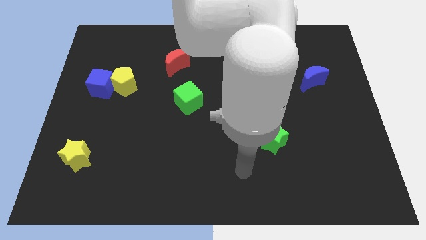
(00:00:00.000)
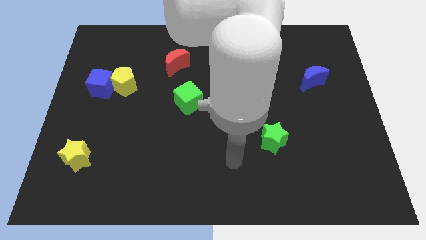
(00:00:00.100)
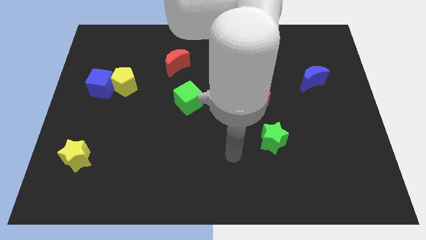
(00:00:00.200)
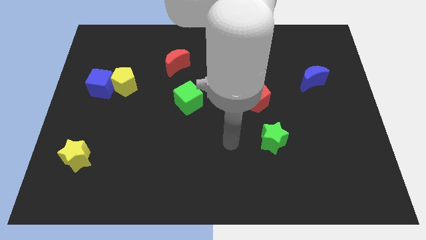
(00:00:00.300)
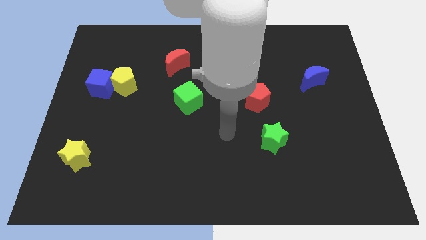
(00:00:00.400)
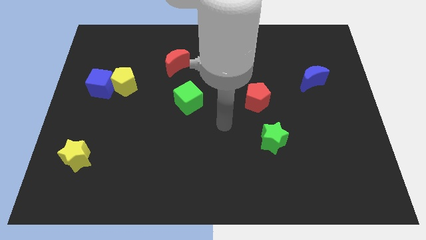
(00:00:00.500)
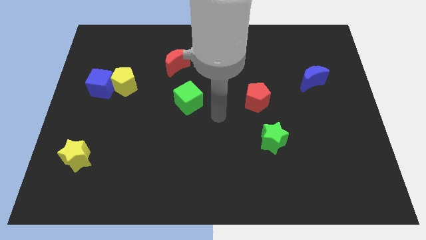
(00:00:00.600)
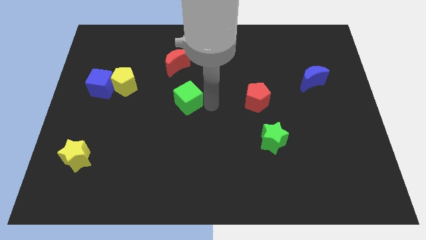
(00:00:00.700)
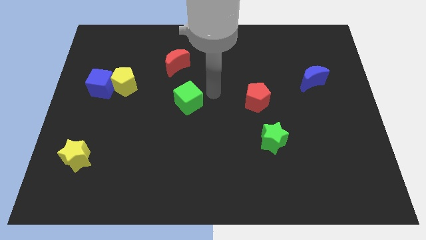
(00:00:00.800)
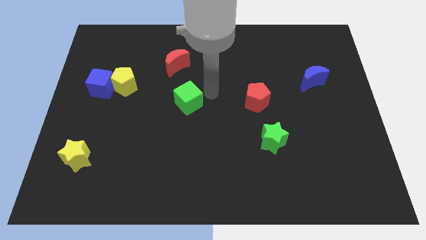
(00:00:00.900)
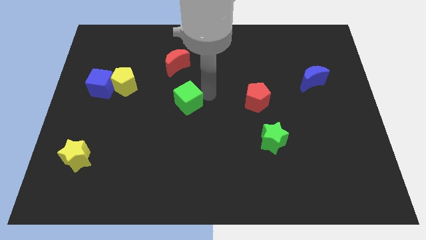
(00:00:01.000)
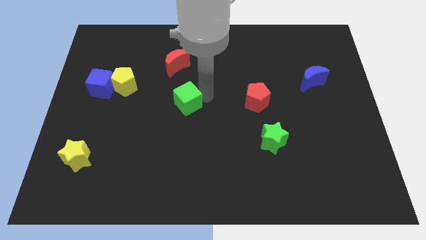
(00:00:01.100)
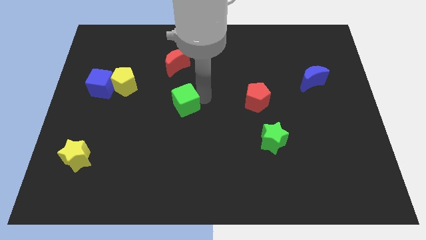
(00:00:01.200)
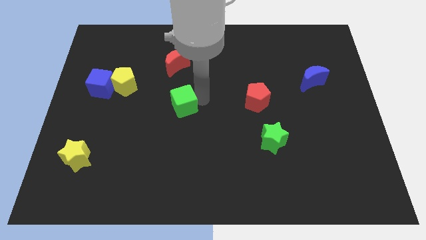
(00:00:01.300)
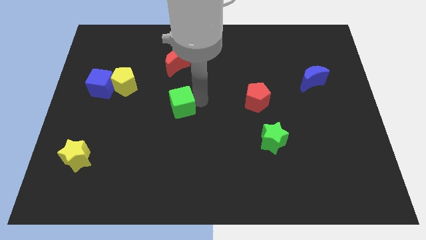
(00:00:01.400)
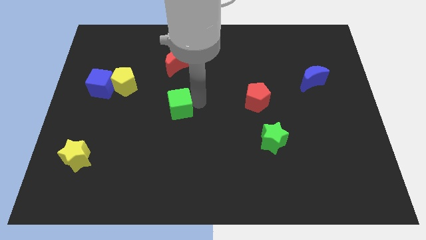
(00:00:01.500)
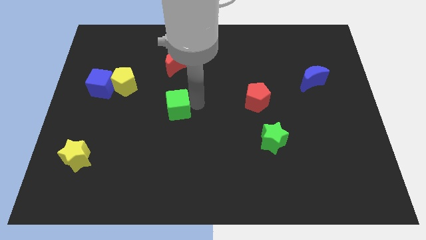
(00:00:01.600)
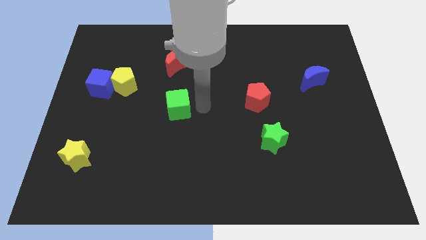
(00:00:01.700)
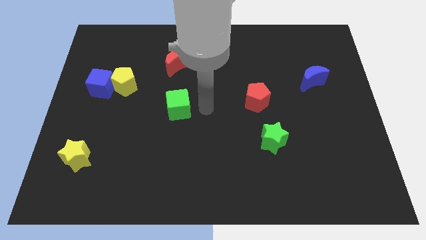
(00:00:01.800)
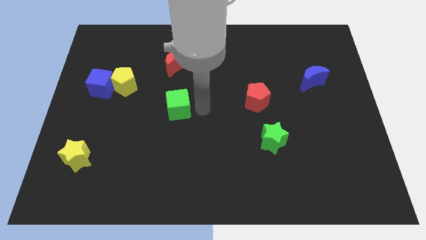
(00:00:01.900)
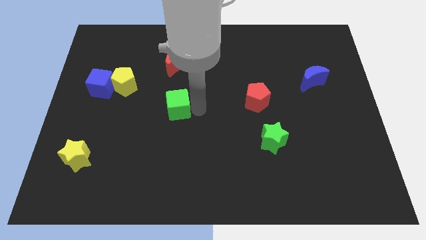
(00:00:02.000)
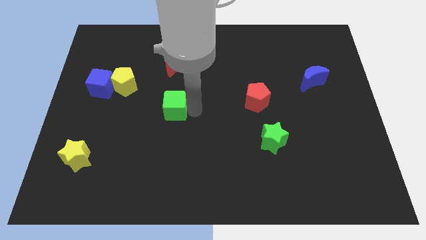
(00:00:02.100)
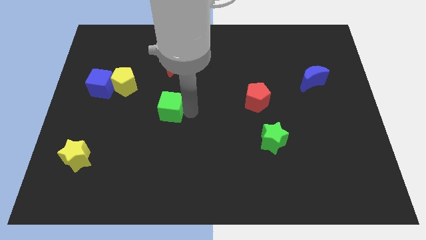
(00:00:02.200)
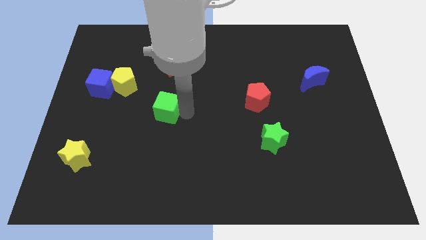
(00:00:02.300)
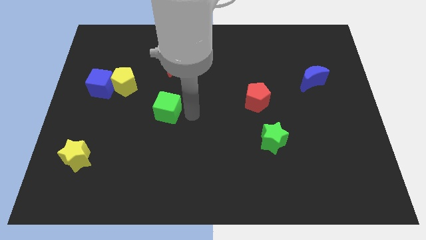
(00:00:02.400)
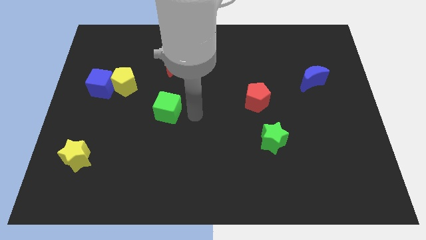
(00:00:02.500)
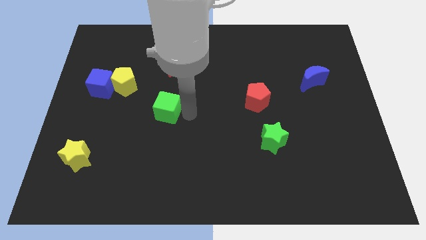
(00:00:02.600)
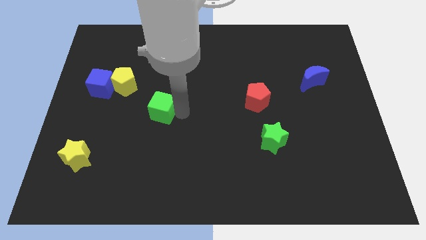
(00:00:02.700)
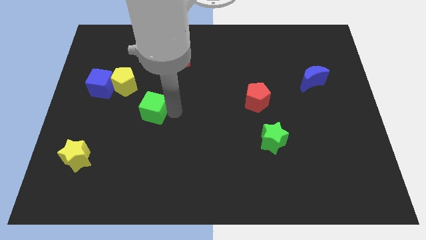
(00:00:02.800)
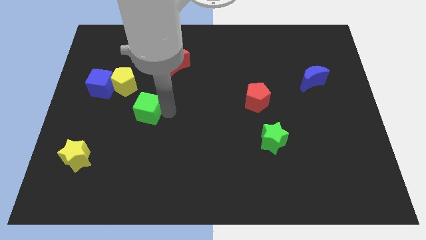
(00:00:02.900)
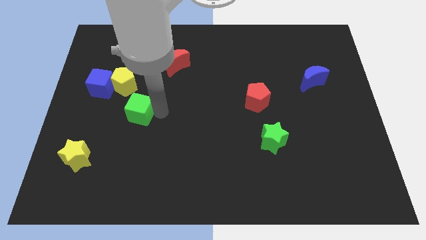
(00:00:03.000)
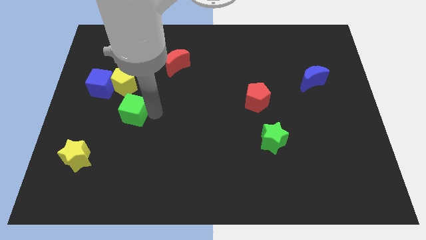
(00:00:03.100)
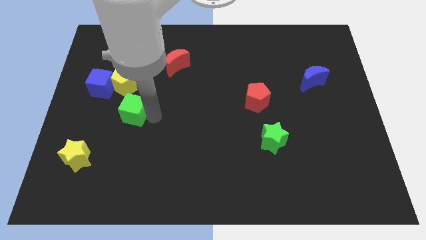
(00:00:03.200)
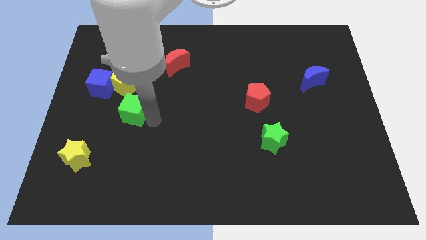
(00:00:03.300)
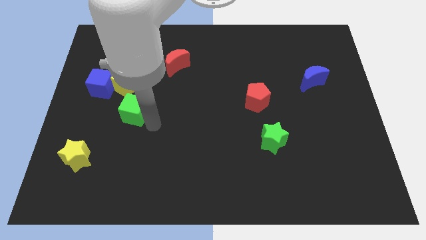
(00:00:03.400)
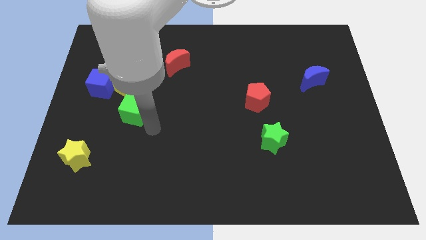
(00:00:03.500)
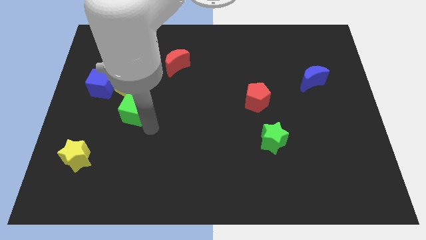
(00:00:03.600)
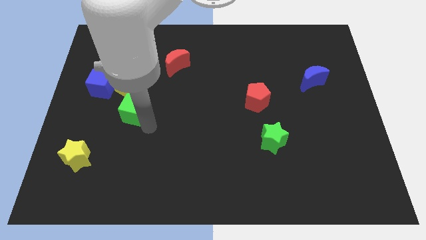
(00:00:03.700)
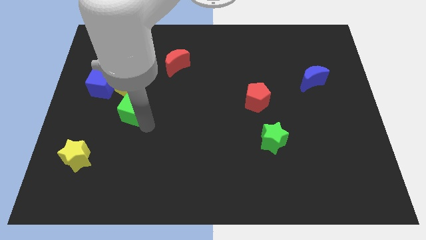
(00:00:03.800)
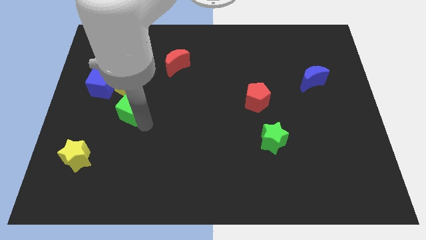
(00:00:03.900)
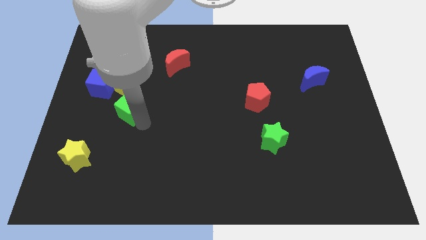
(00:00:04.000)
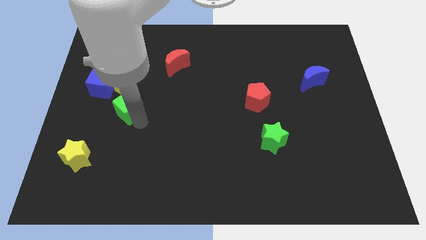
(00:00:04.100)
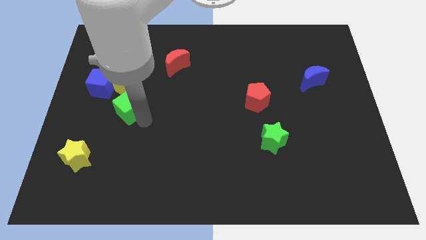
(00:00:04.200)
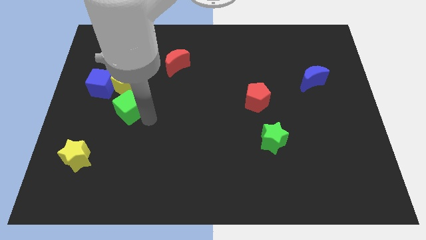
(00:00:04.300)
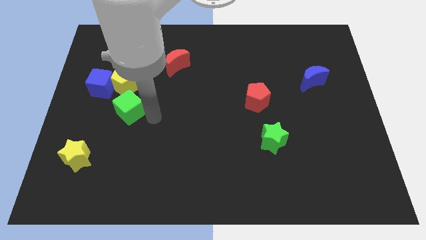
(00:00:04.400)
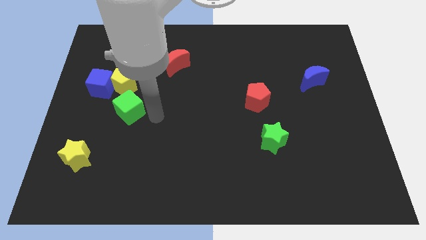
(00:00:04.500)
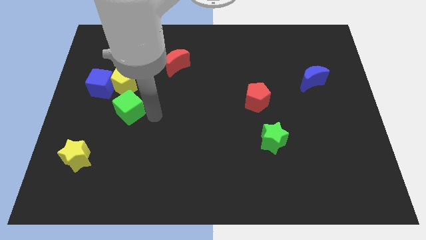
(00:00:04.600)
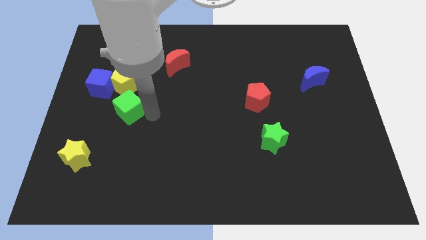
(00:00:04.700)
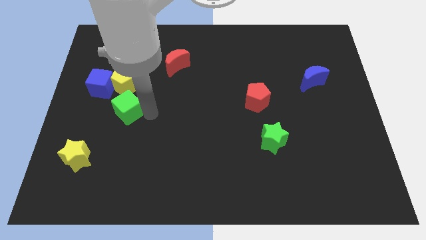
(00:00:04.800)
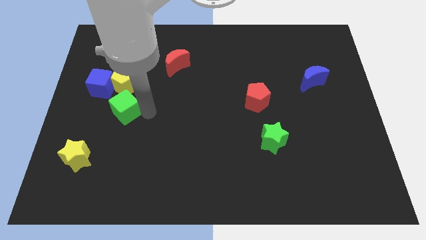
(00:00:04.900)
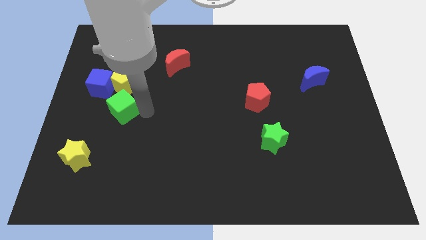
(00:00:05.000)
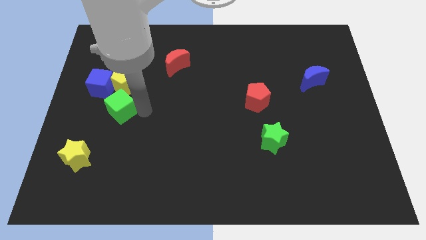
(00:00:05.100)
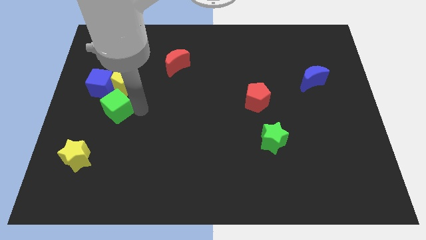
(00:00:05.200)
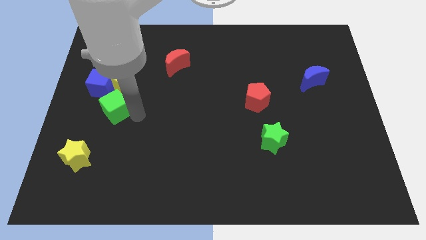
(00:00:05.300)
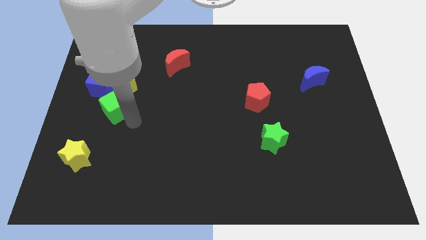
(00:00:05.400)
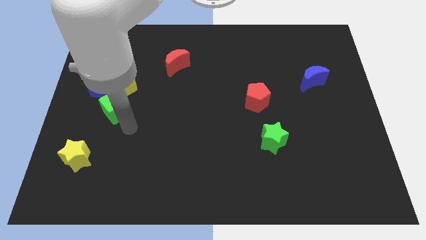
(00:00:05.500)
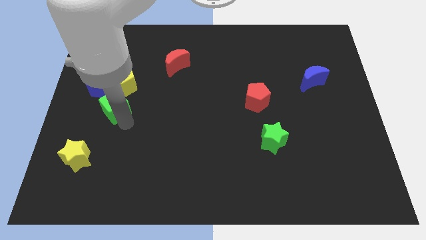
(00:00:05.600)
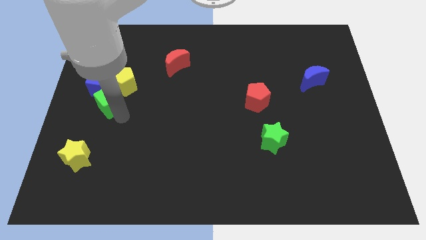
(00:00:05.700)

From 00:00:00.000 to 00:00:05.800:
put the green cube towards the blue cube

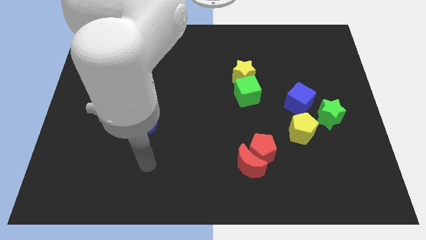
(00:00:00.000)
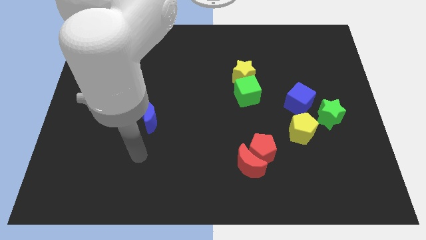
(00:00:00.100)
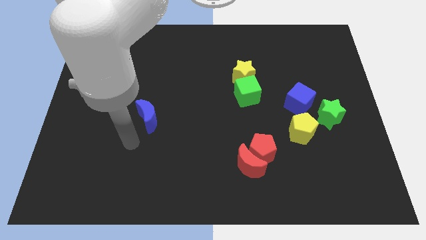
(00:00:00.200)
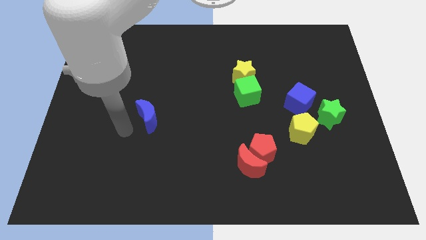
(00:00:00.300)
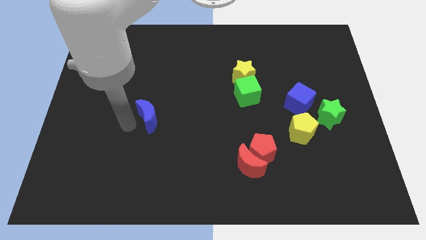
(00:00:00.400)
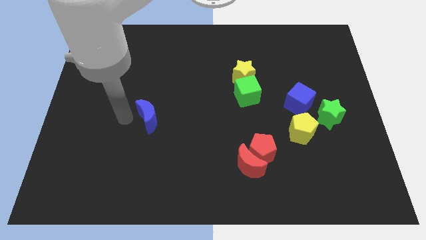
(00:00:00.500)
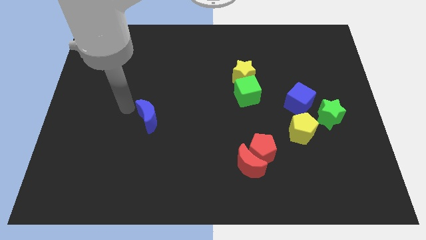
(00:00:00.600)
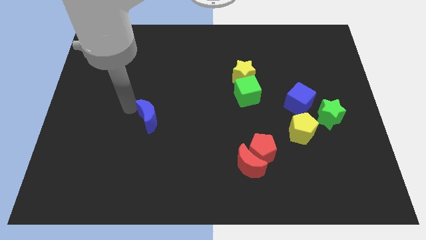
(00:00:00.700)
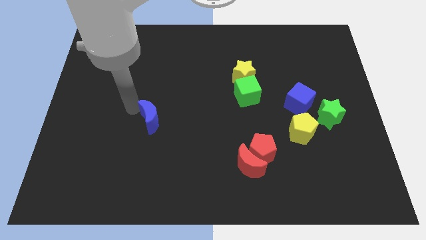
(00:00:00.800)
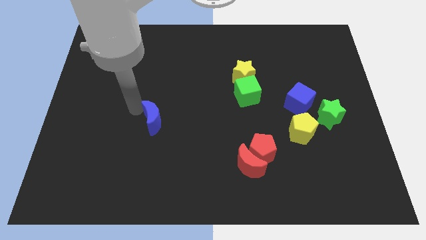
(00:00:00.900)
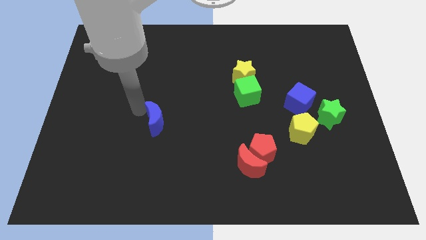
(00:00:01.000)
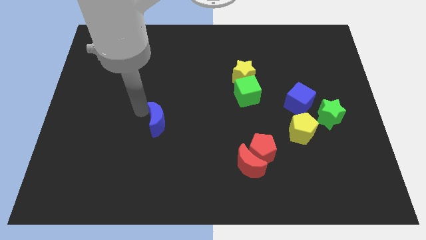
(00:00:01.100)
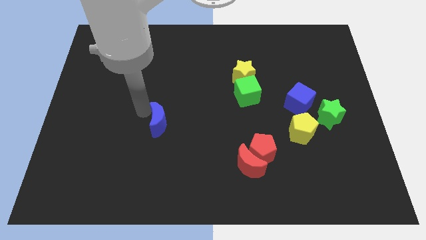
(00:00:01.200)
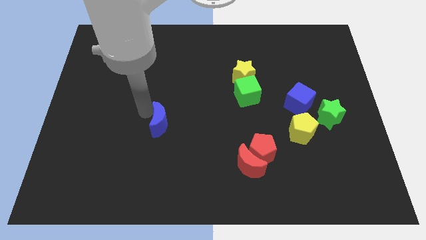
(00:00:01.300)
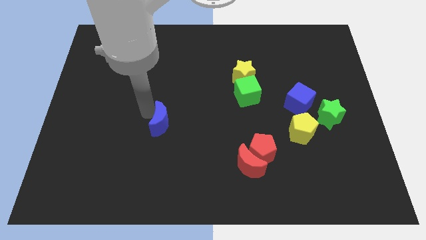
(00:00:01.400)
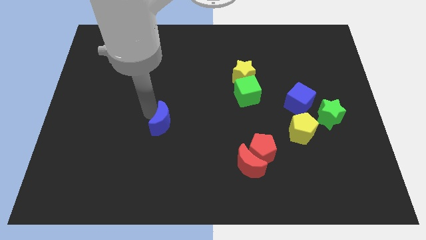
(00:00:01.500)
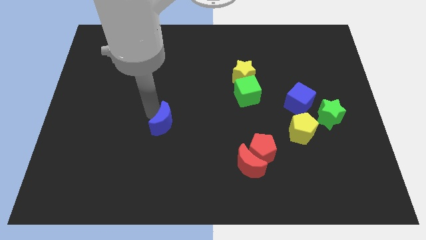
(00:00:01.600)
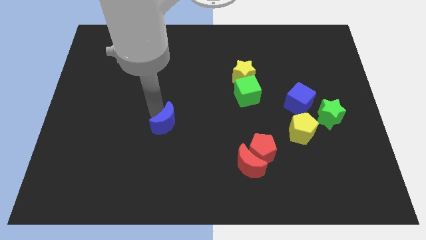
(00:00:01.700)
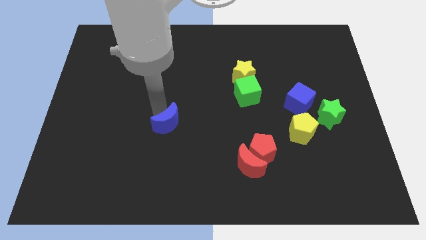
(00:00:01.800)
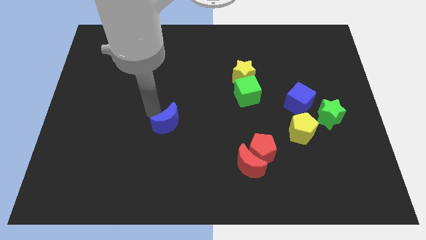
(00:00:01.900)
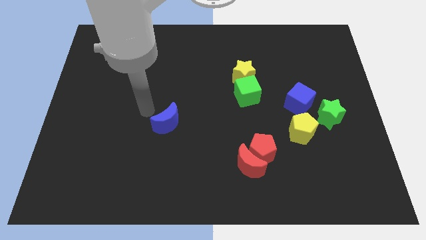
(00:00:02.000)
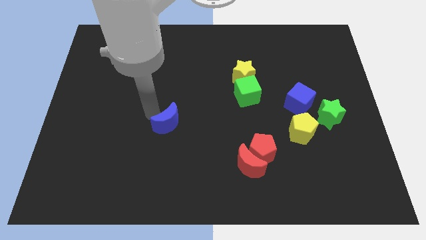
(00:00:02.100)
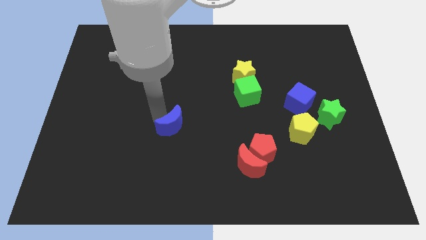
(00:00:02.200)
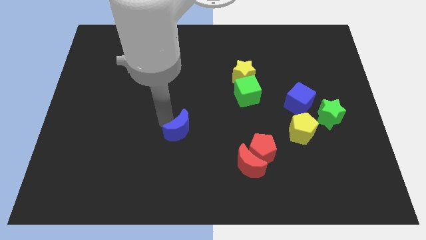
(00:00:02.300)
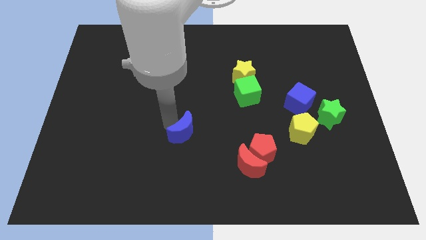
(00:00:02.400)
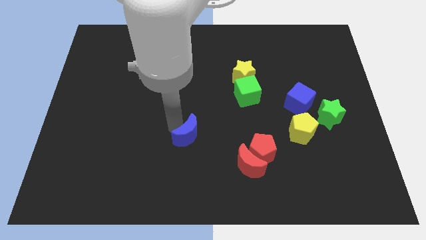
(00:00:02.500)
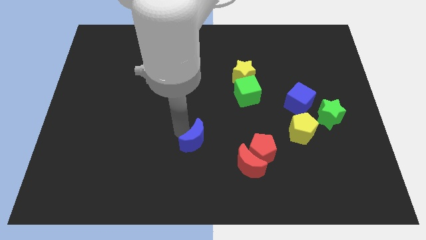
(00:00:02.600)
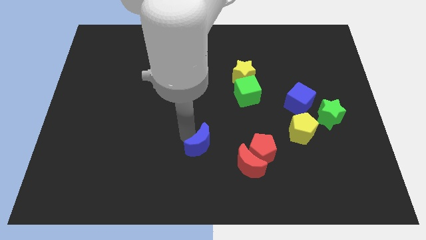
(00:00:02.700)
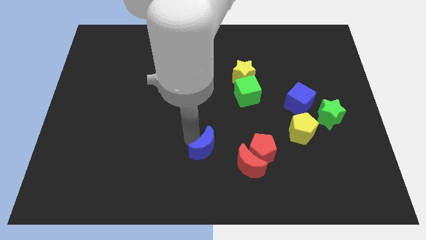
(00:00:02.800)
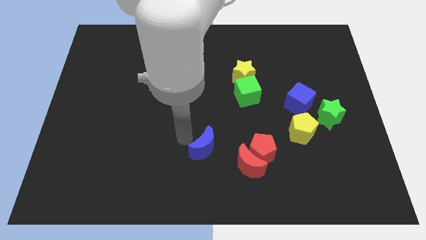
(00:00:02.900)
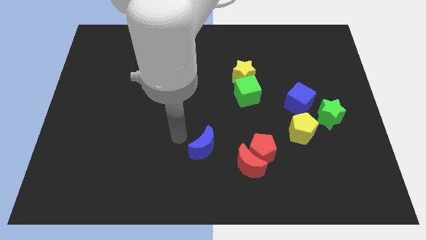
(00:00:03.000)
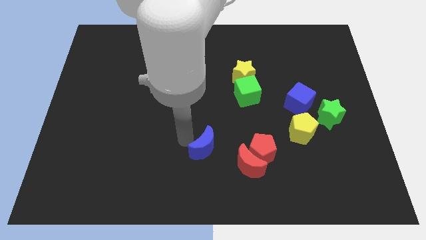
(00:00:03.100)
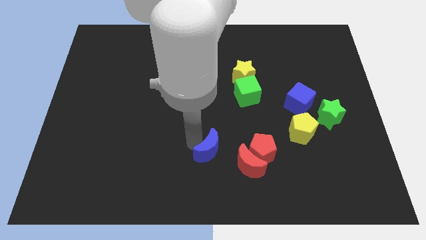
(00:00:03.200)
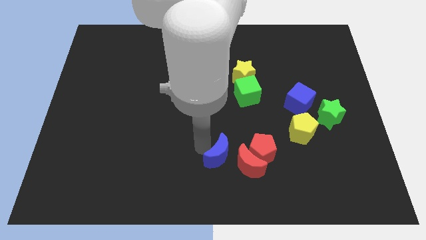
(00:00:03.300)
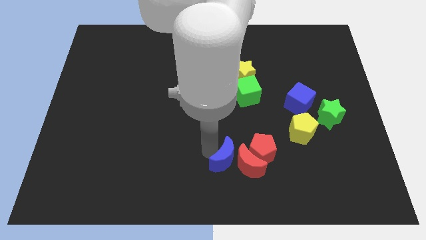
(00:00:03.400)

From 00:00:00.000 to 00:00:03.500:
slide the blue moon close to the red moon
